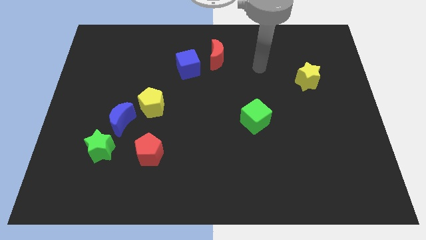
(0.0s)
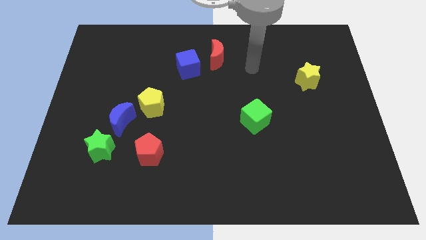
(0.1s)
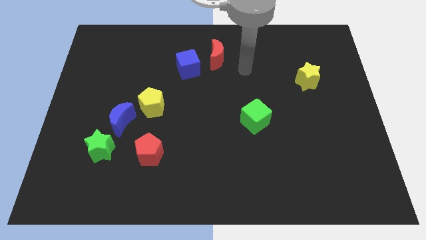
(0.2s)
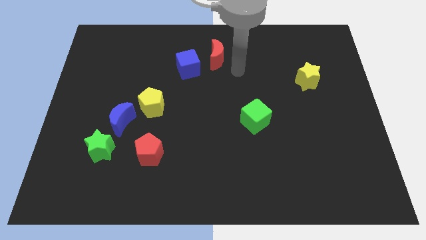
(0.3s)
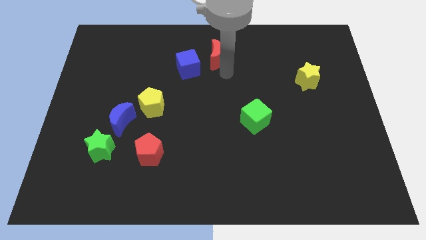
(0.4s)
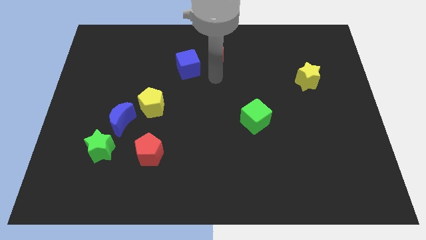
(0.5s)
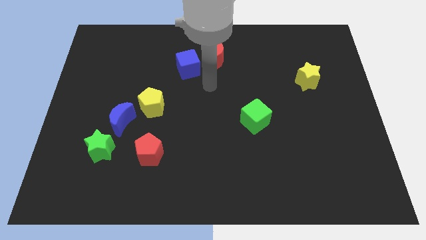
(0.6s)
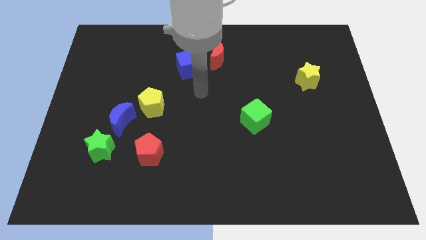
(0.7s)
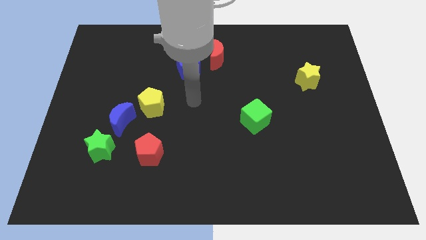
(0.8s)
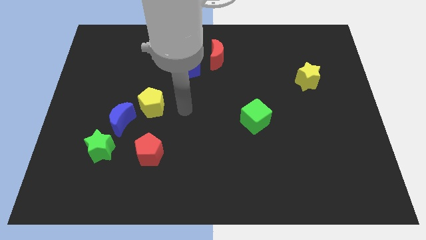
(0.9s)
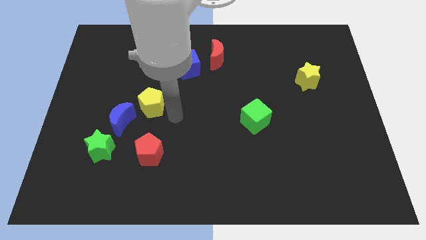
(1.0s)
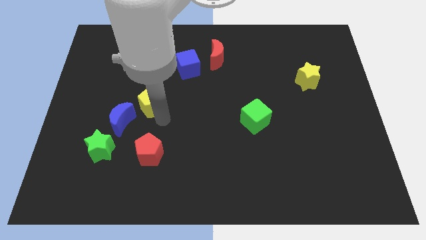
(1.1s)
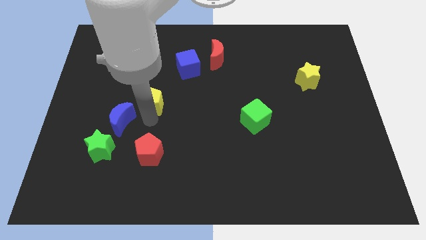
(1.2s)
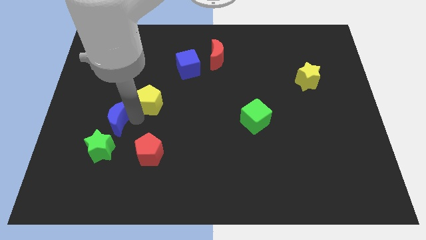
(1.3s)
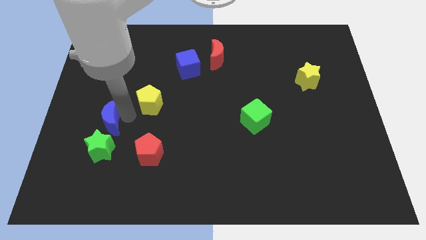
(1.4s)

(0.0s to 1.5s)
move the yellow pentagon away from the blue moon

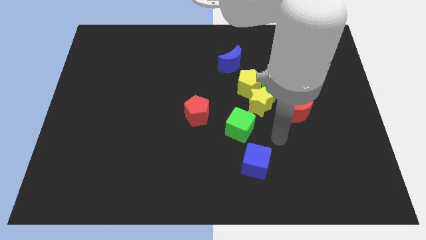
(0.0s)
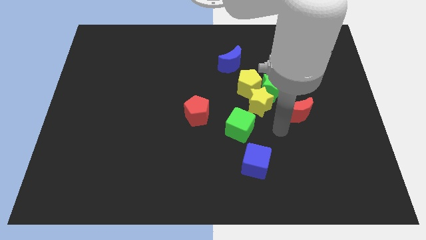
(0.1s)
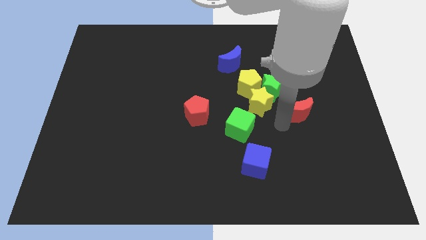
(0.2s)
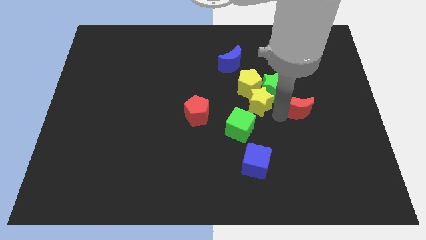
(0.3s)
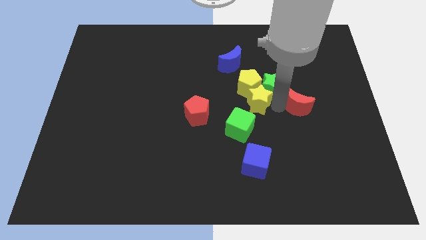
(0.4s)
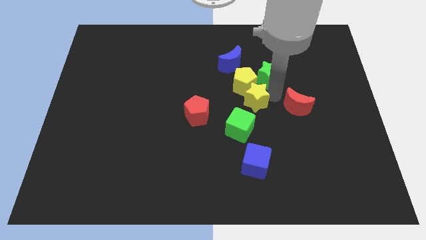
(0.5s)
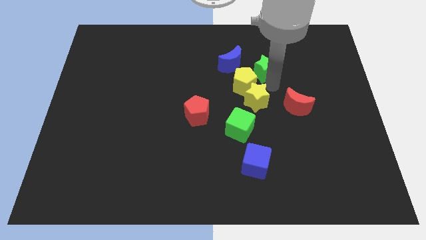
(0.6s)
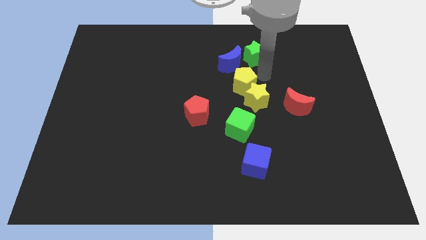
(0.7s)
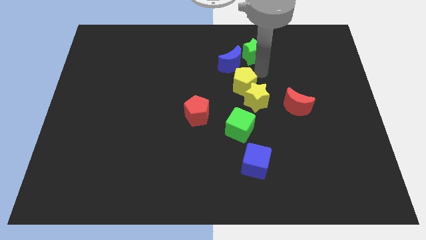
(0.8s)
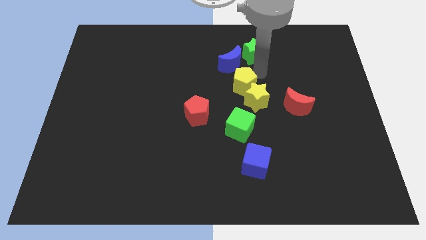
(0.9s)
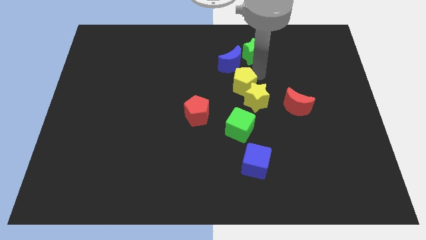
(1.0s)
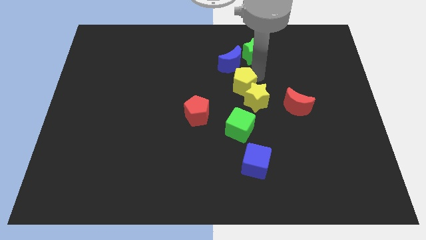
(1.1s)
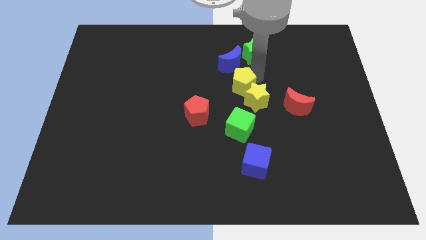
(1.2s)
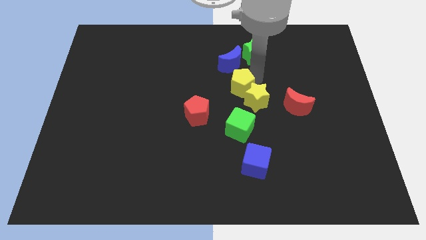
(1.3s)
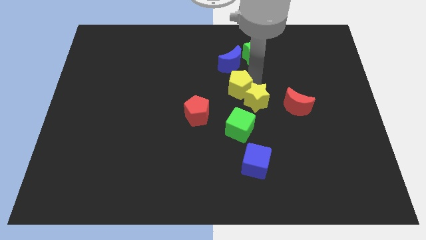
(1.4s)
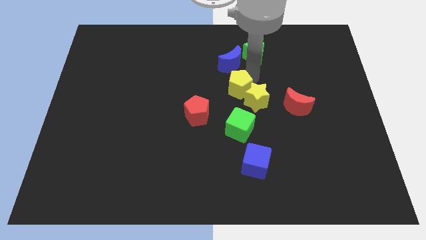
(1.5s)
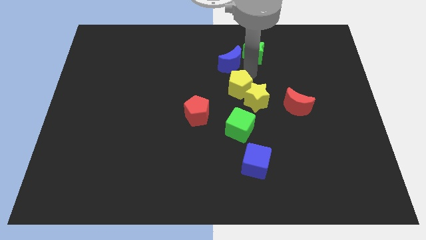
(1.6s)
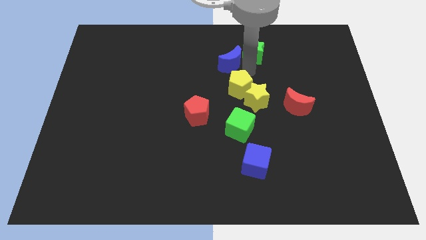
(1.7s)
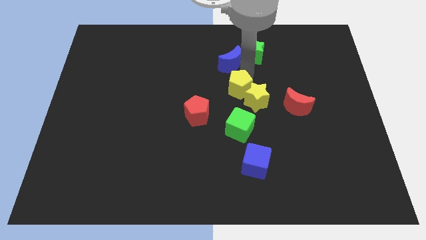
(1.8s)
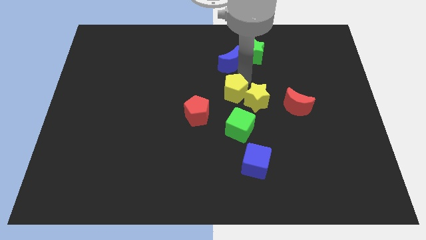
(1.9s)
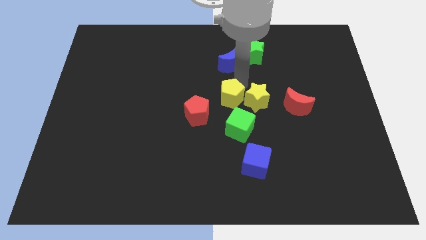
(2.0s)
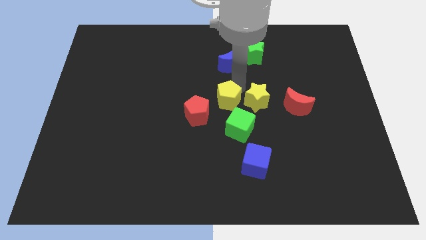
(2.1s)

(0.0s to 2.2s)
separate the yellow pentagon from the clump

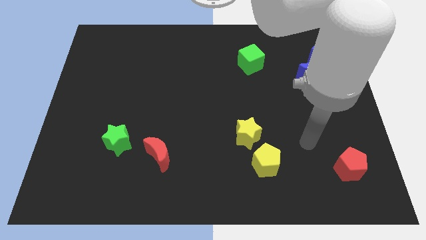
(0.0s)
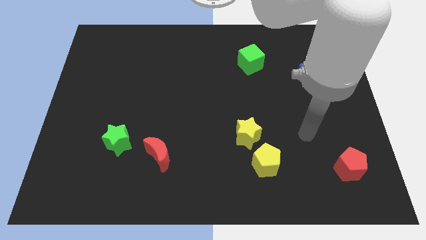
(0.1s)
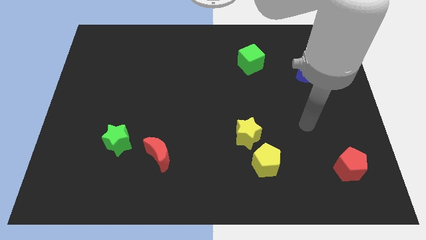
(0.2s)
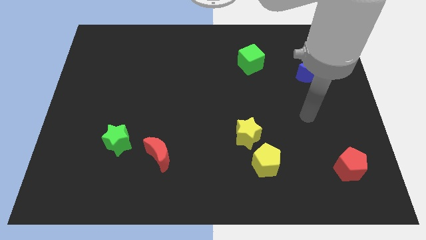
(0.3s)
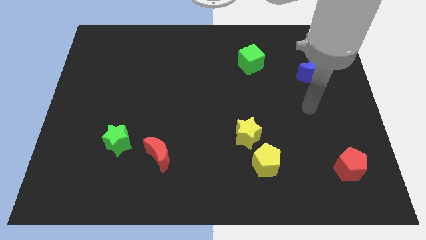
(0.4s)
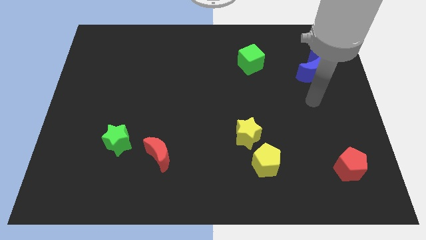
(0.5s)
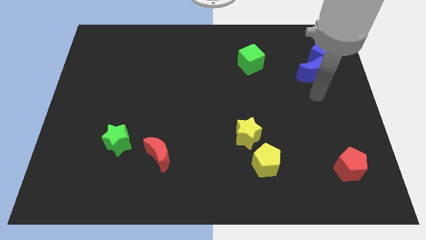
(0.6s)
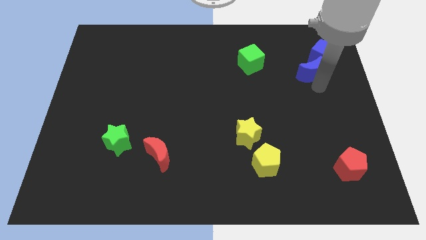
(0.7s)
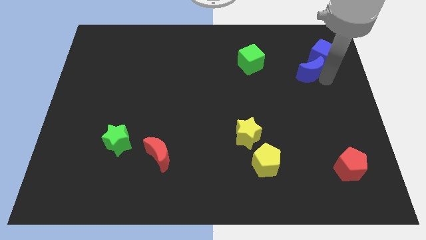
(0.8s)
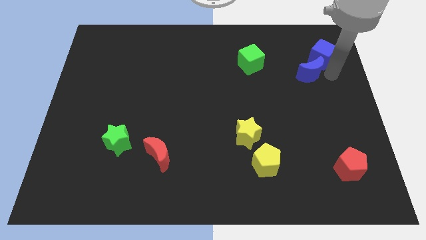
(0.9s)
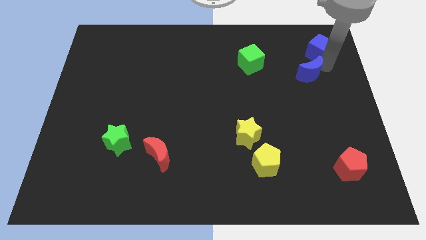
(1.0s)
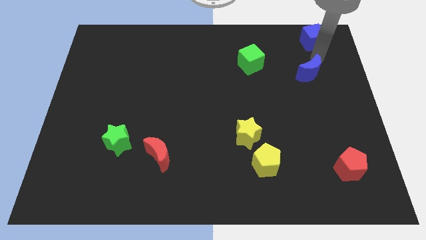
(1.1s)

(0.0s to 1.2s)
separate the blue moon from the blue cube

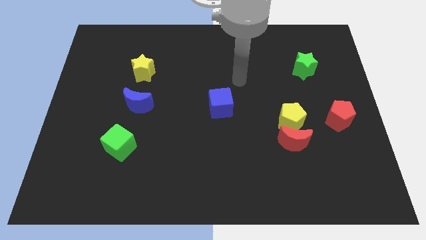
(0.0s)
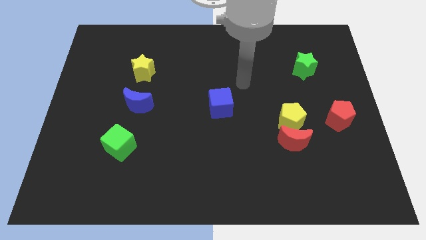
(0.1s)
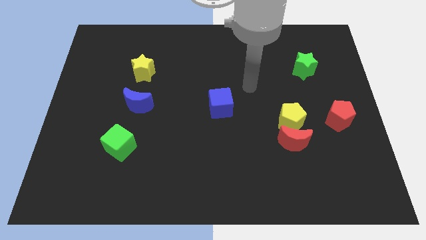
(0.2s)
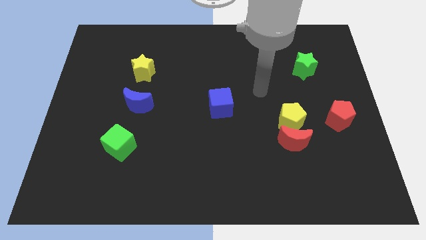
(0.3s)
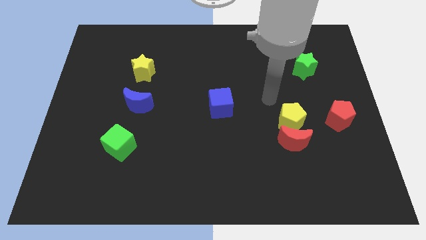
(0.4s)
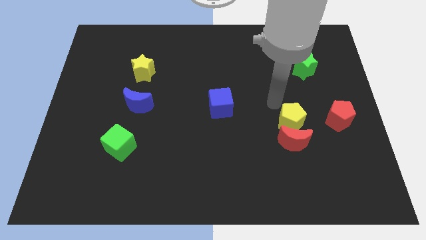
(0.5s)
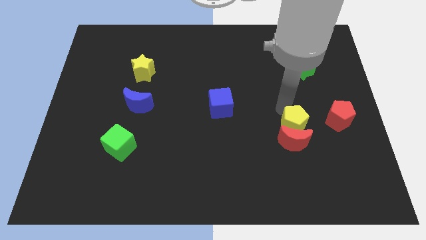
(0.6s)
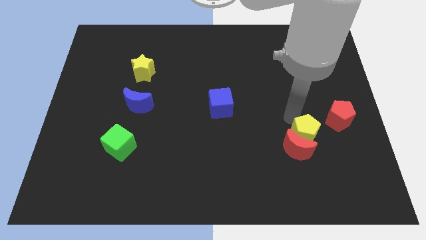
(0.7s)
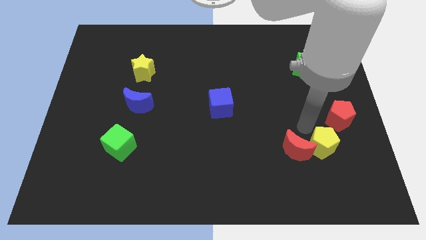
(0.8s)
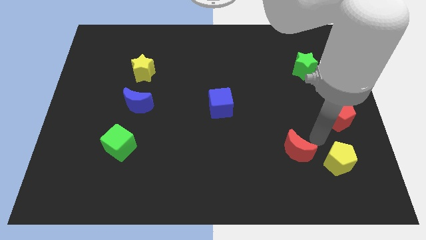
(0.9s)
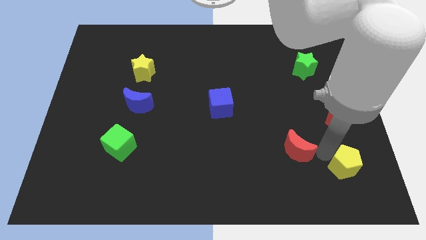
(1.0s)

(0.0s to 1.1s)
pull the red moon apart from the yellow pentagon

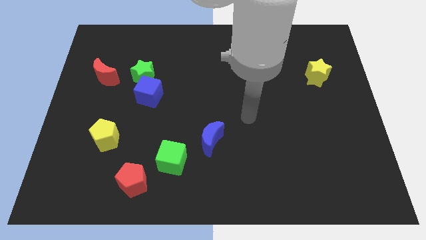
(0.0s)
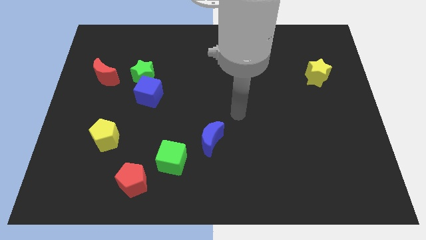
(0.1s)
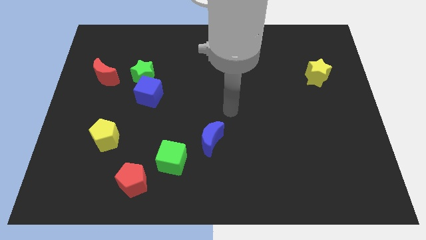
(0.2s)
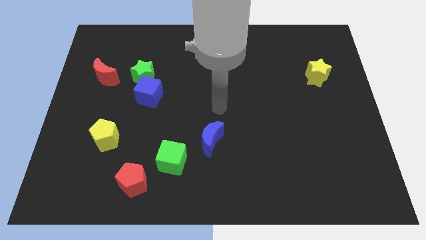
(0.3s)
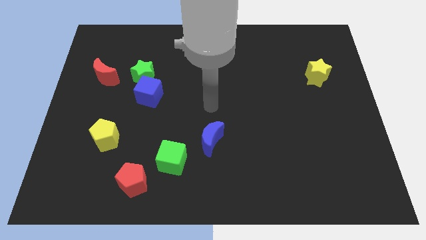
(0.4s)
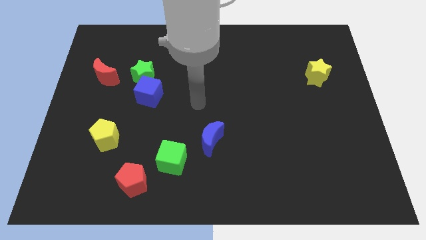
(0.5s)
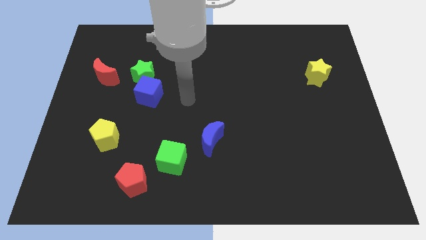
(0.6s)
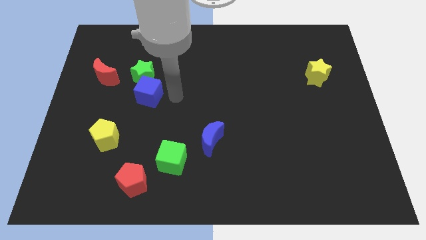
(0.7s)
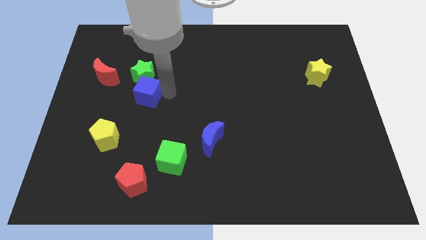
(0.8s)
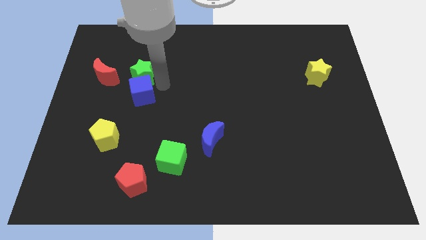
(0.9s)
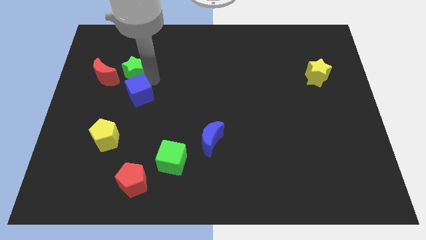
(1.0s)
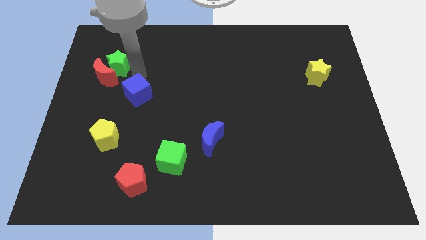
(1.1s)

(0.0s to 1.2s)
move the blue cube away from the green star

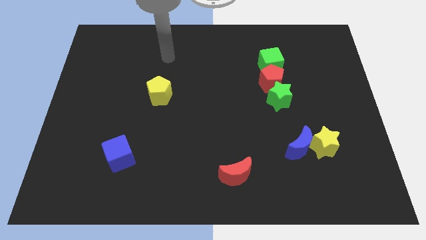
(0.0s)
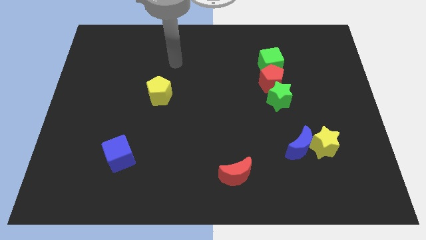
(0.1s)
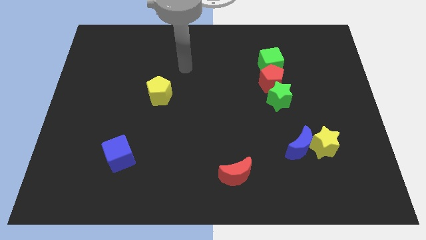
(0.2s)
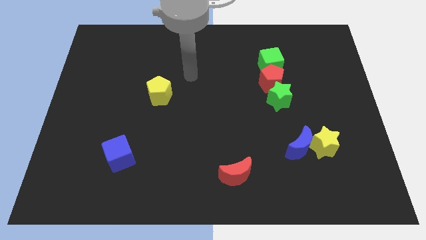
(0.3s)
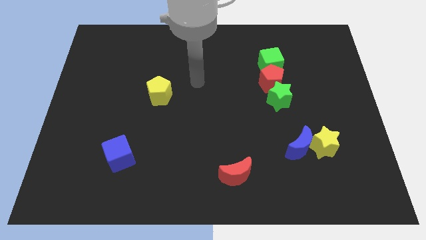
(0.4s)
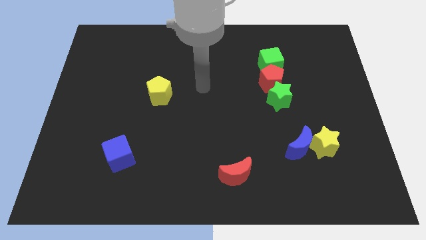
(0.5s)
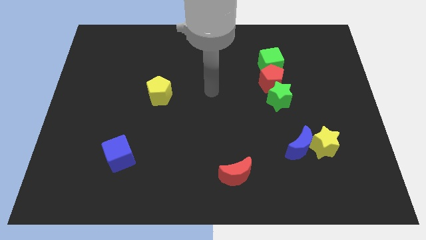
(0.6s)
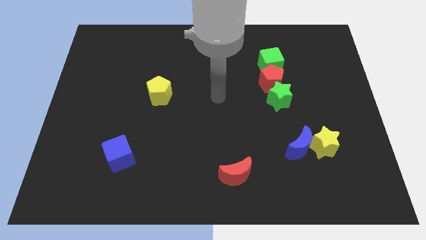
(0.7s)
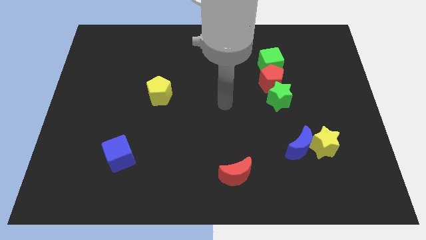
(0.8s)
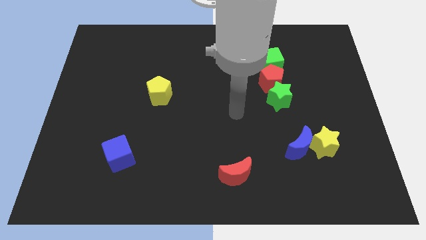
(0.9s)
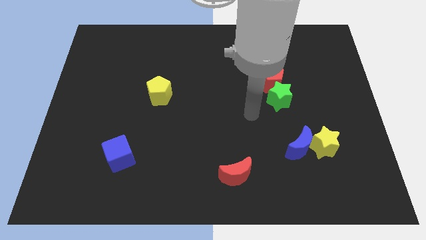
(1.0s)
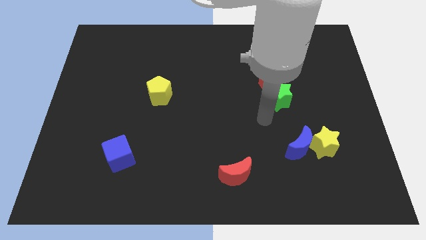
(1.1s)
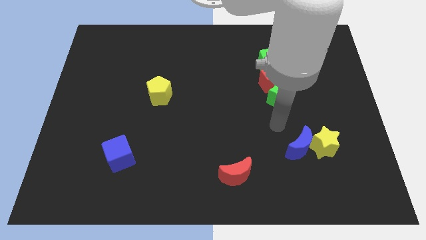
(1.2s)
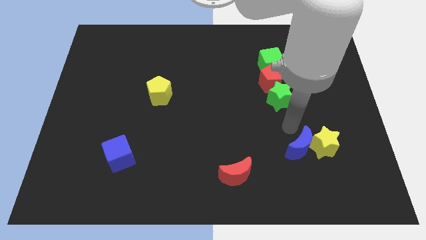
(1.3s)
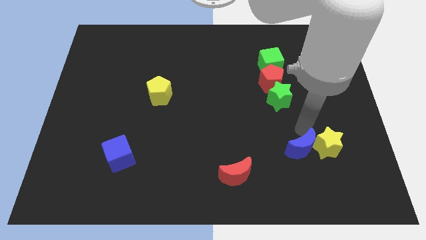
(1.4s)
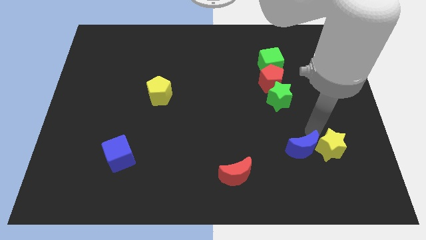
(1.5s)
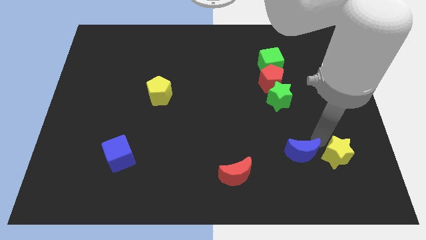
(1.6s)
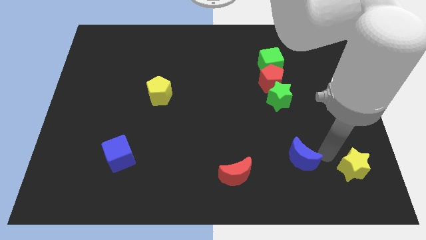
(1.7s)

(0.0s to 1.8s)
move the blue moon away from the yellow star

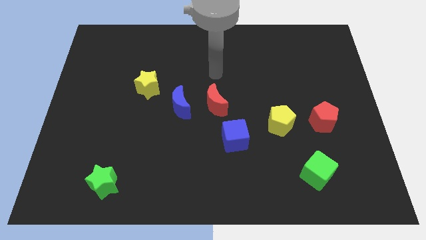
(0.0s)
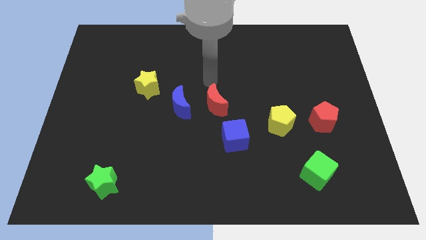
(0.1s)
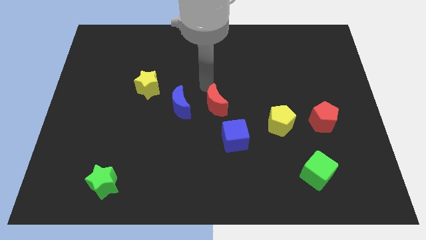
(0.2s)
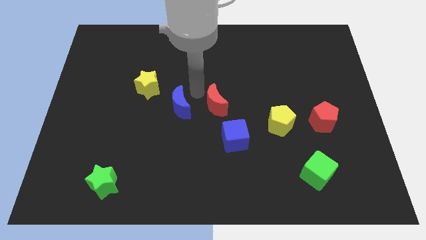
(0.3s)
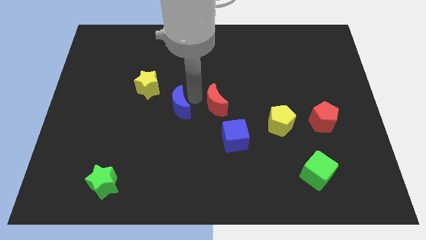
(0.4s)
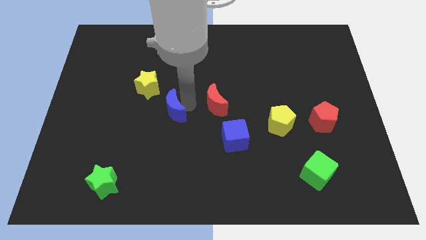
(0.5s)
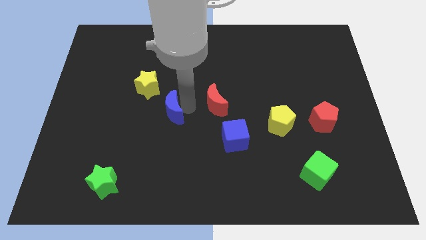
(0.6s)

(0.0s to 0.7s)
move the red moon away from the blue moon
